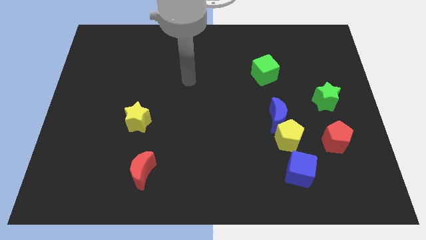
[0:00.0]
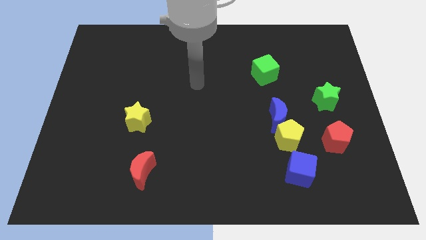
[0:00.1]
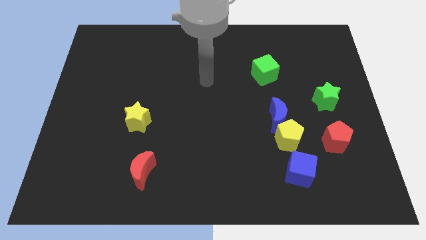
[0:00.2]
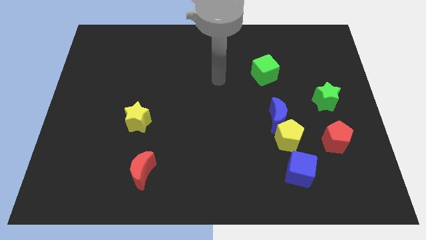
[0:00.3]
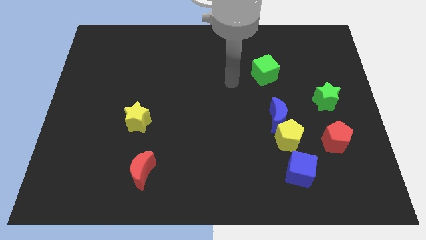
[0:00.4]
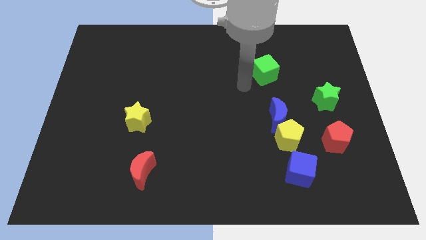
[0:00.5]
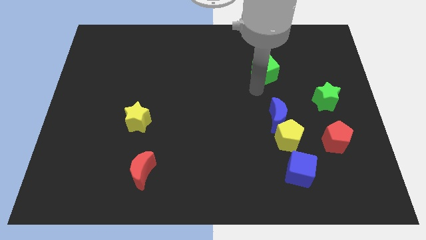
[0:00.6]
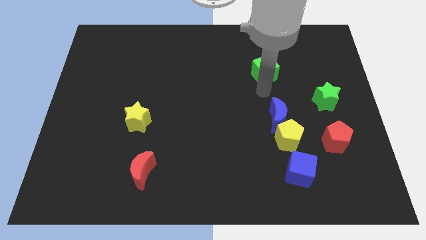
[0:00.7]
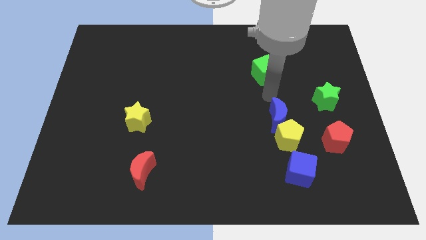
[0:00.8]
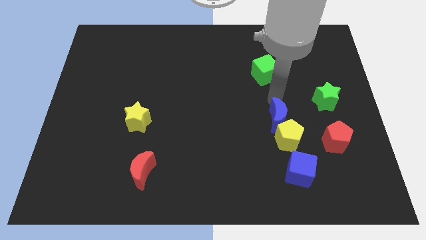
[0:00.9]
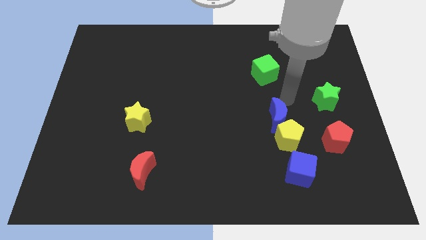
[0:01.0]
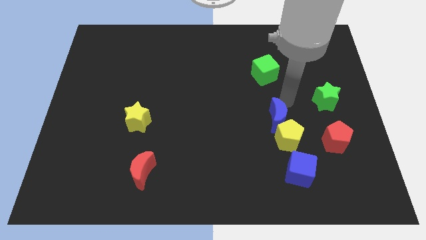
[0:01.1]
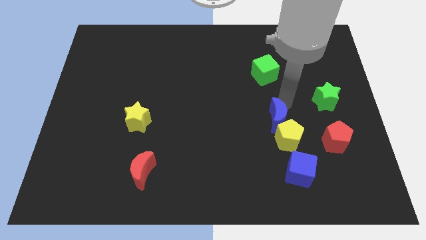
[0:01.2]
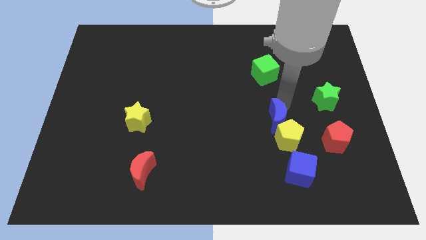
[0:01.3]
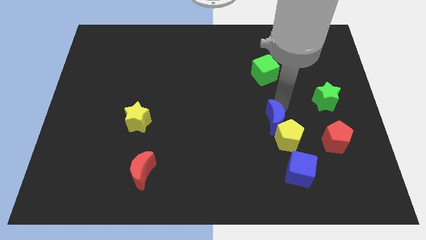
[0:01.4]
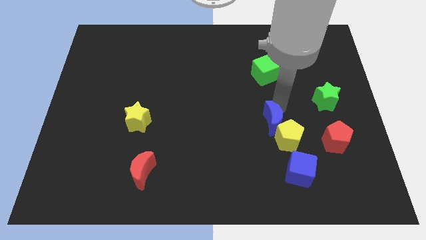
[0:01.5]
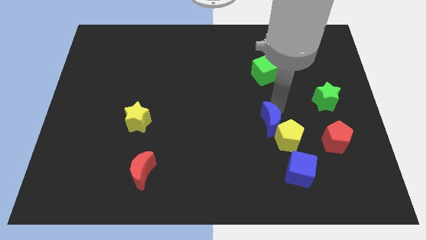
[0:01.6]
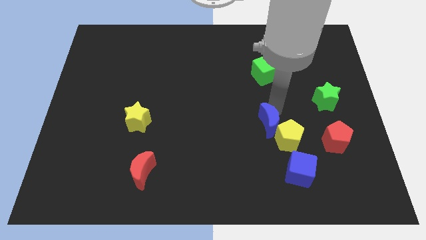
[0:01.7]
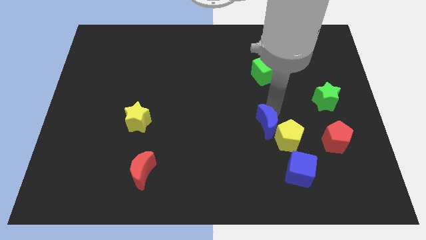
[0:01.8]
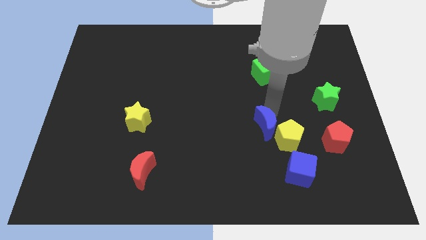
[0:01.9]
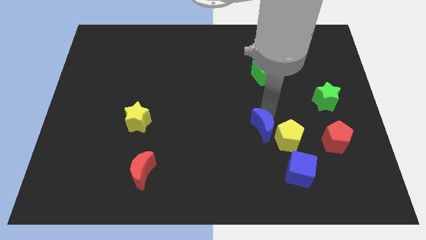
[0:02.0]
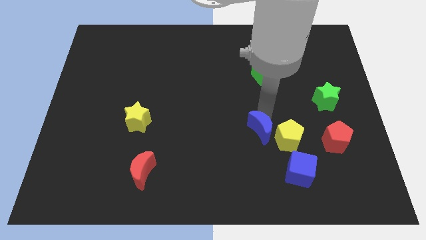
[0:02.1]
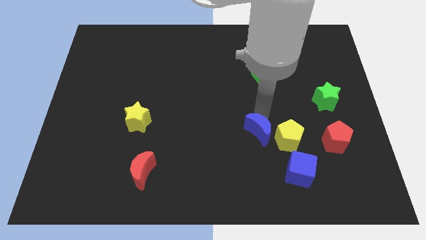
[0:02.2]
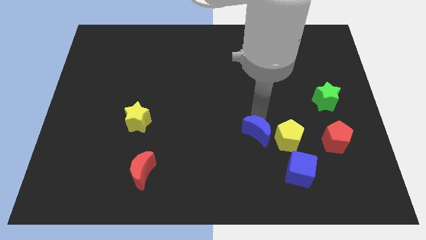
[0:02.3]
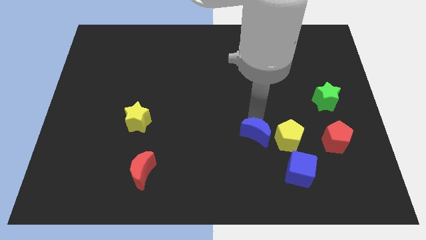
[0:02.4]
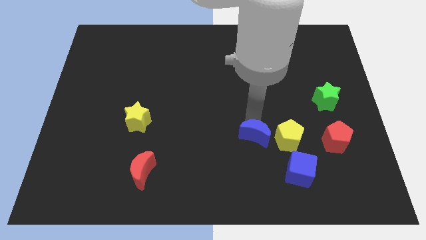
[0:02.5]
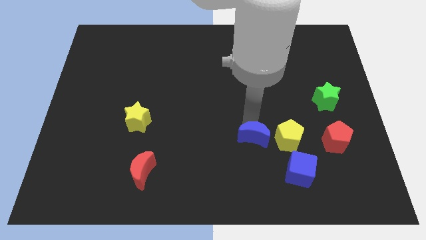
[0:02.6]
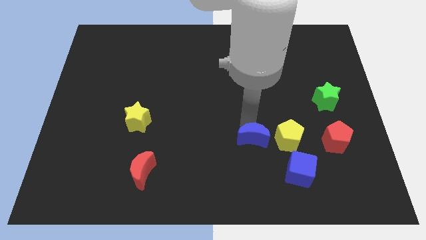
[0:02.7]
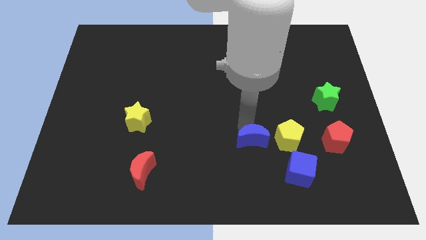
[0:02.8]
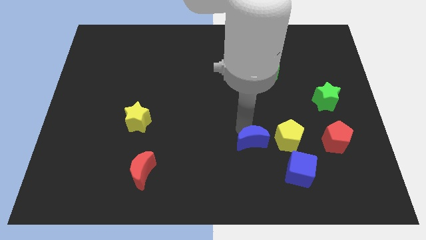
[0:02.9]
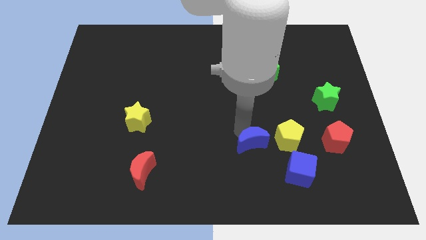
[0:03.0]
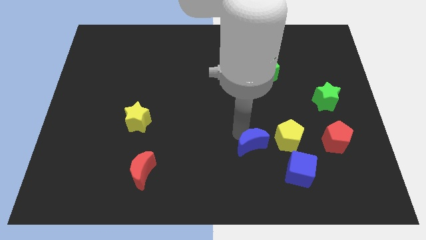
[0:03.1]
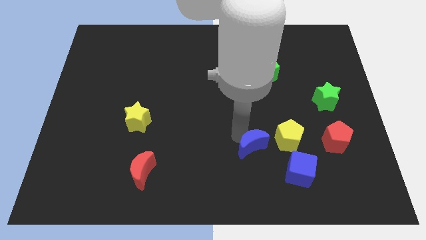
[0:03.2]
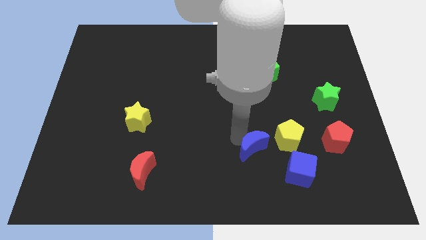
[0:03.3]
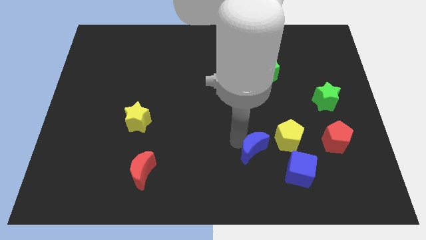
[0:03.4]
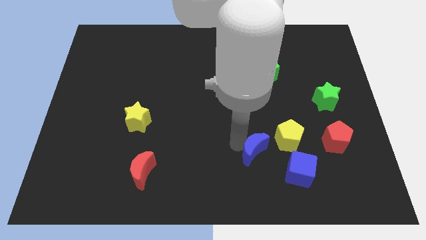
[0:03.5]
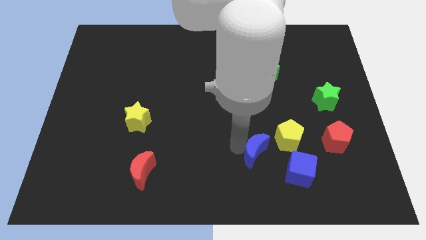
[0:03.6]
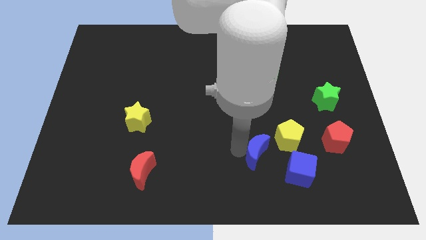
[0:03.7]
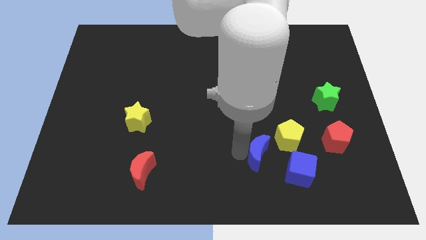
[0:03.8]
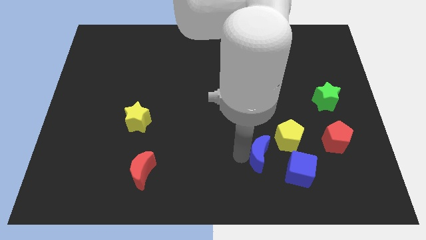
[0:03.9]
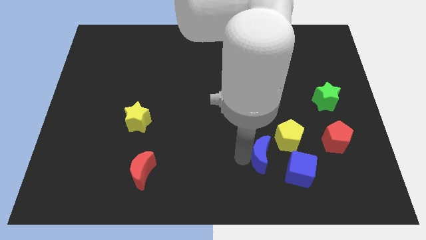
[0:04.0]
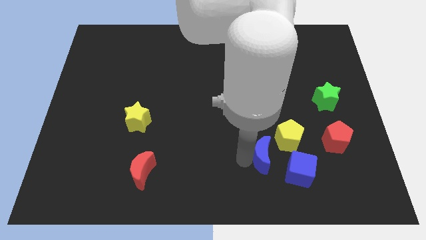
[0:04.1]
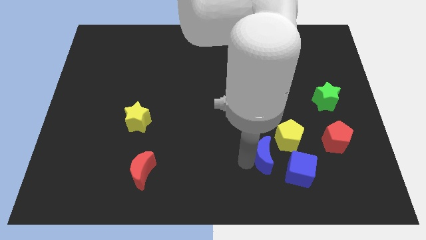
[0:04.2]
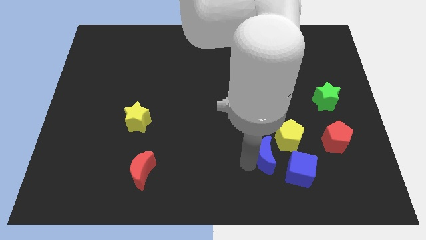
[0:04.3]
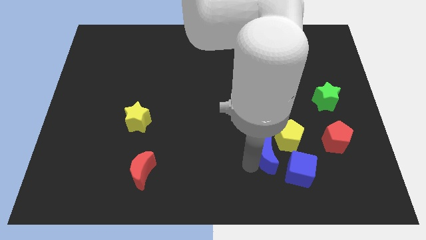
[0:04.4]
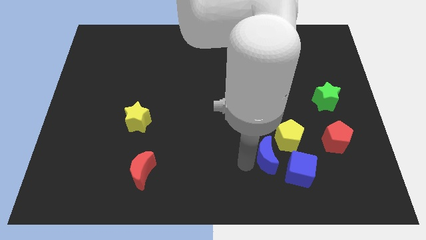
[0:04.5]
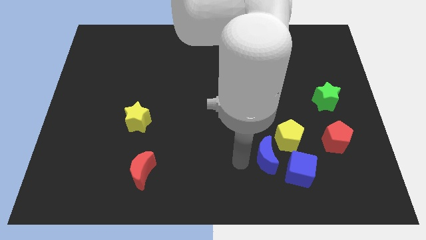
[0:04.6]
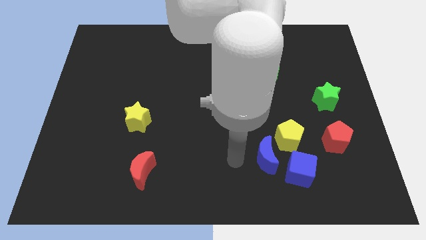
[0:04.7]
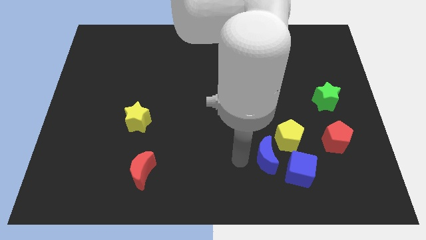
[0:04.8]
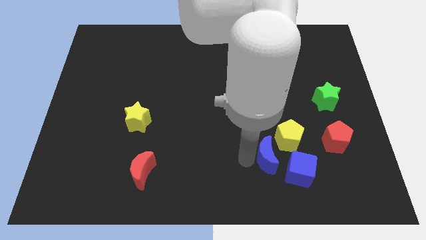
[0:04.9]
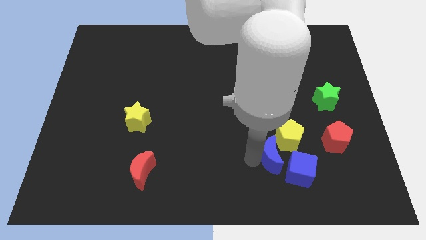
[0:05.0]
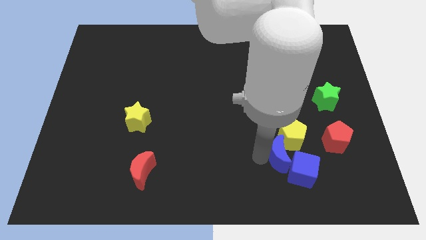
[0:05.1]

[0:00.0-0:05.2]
put the blue moon to the blue cube

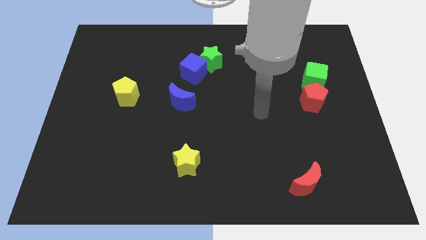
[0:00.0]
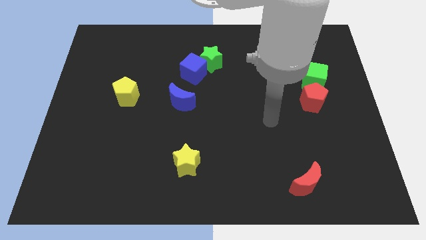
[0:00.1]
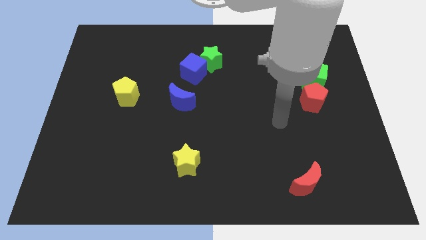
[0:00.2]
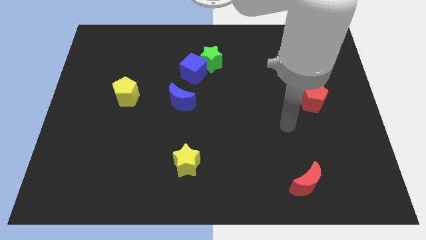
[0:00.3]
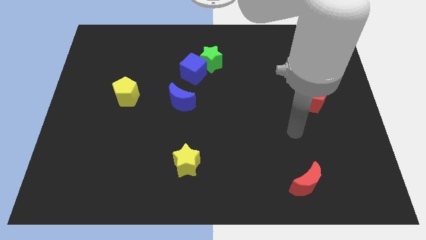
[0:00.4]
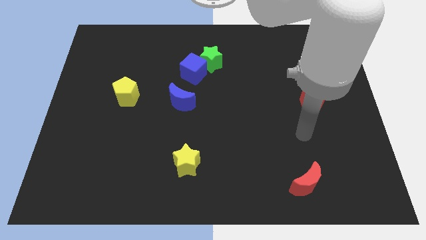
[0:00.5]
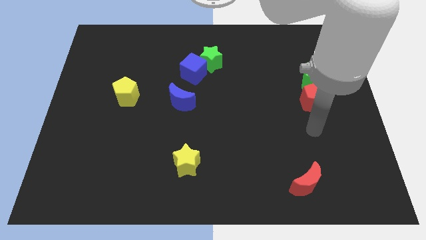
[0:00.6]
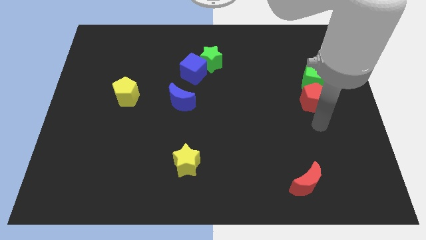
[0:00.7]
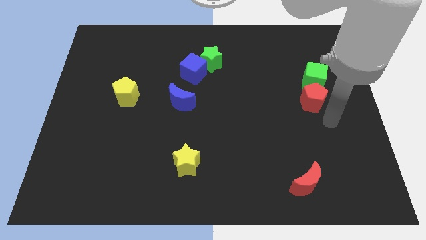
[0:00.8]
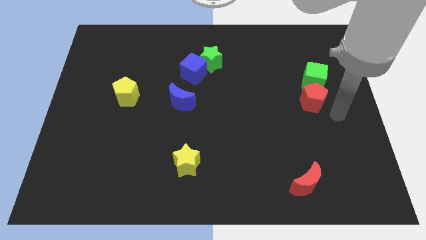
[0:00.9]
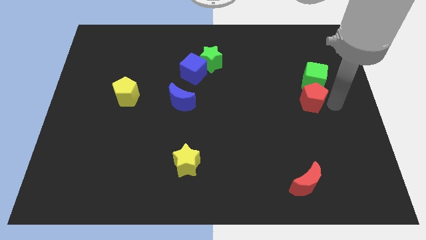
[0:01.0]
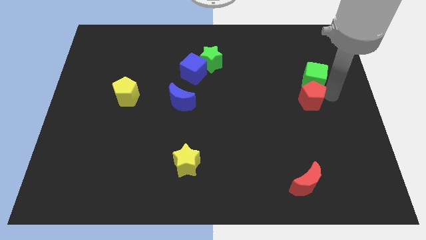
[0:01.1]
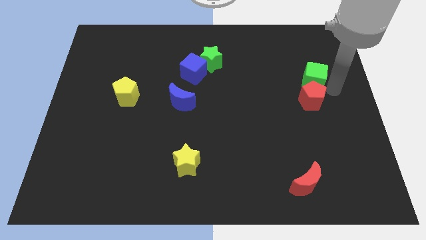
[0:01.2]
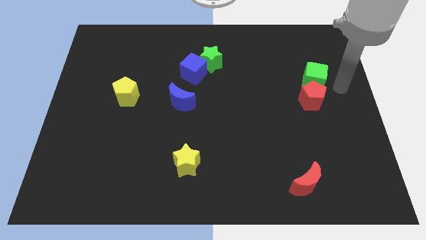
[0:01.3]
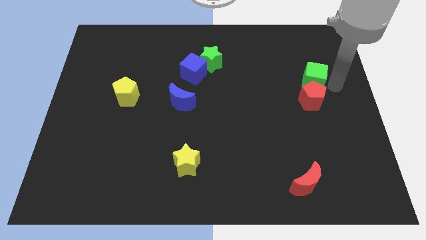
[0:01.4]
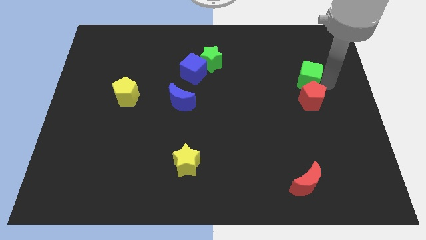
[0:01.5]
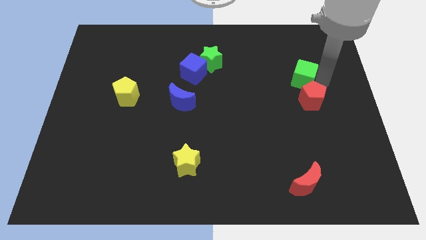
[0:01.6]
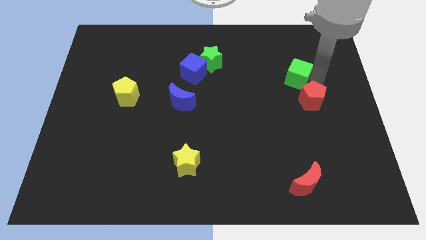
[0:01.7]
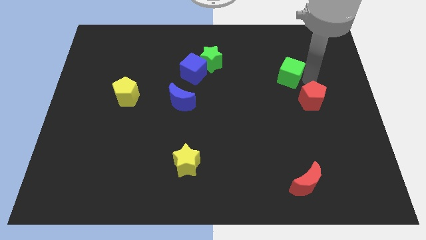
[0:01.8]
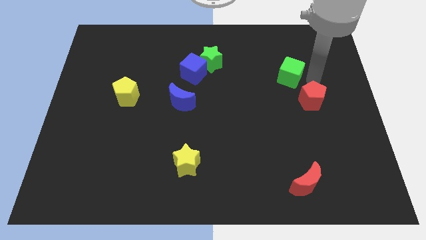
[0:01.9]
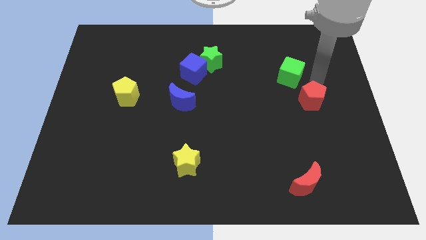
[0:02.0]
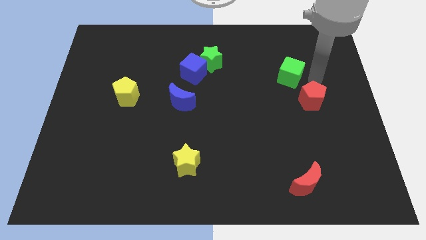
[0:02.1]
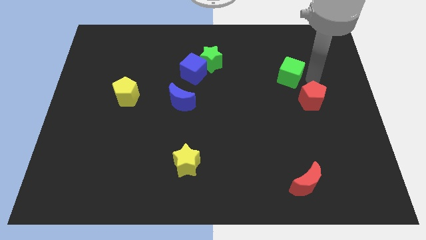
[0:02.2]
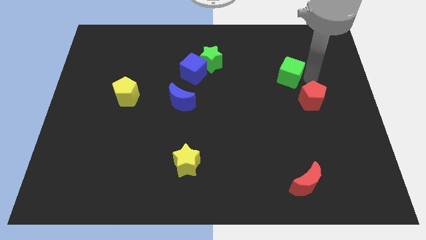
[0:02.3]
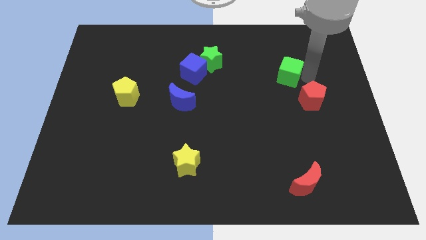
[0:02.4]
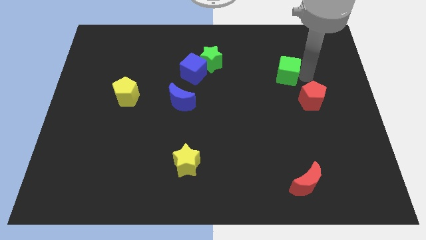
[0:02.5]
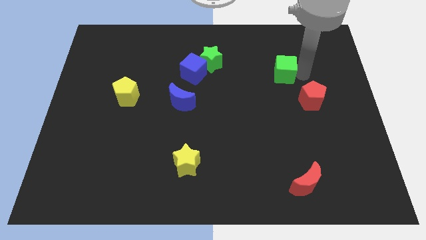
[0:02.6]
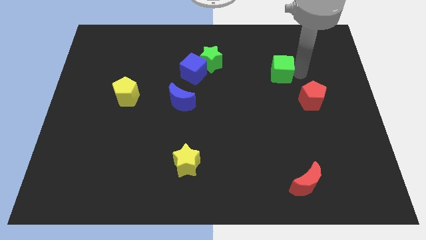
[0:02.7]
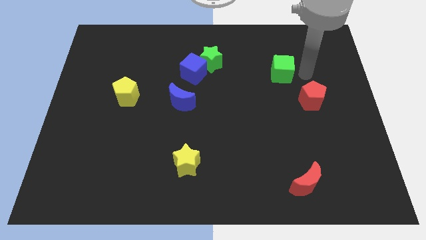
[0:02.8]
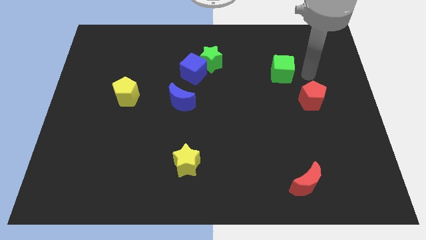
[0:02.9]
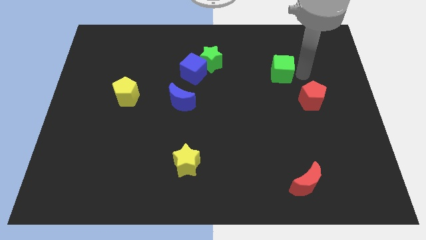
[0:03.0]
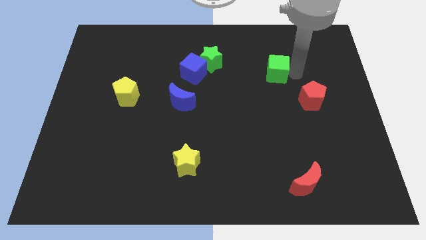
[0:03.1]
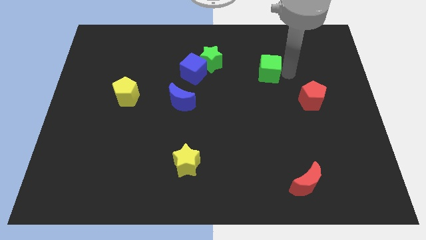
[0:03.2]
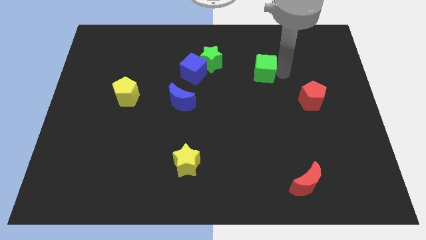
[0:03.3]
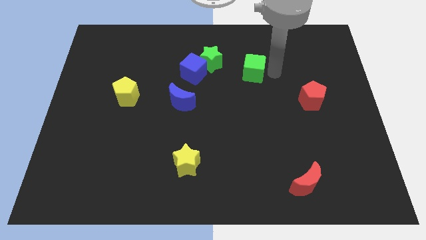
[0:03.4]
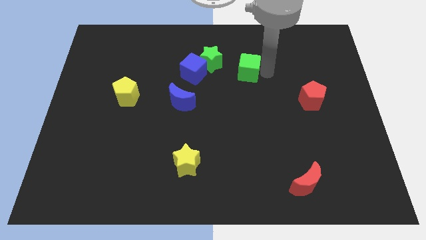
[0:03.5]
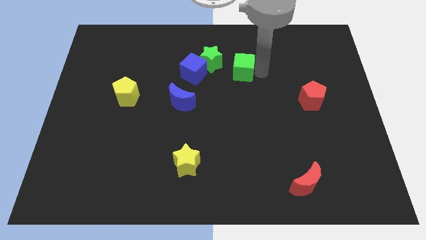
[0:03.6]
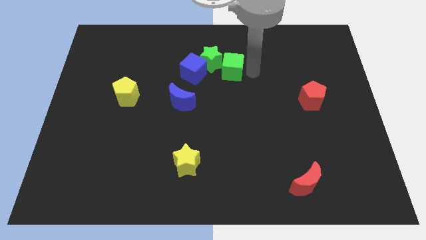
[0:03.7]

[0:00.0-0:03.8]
put the green cube towards the green star
